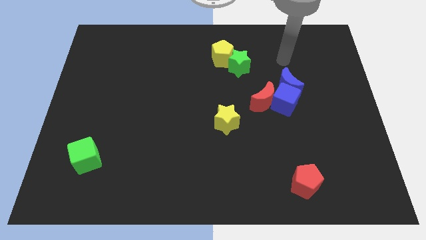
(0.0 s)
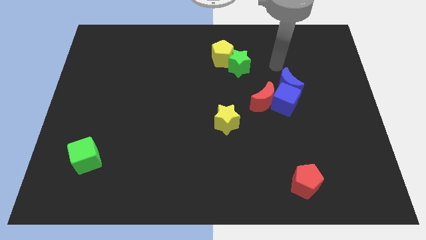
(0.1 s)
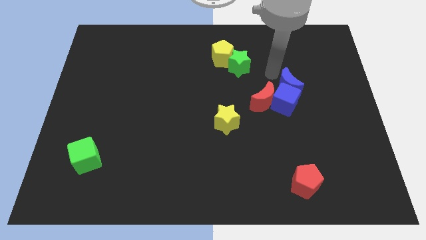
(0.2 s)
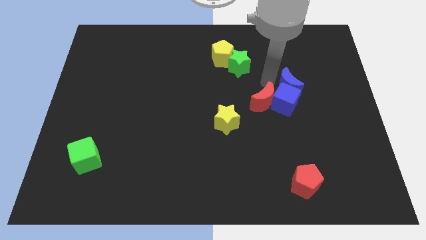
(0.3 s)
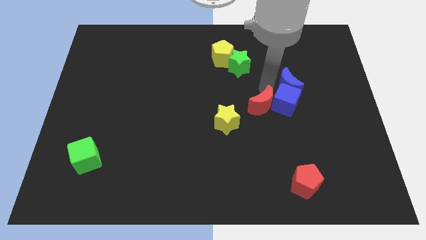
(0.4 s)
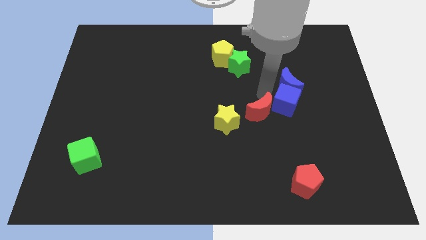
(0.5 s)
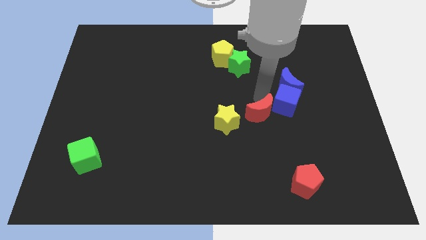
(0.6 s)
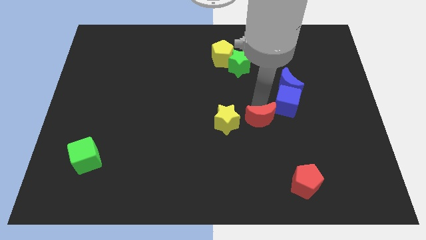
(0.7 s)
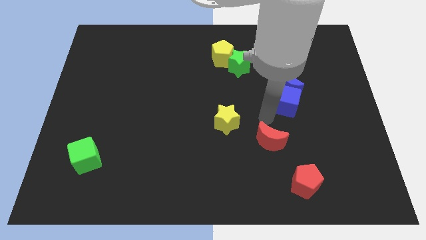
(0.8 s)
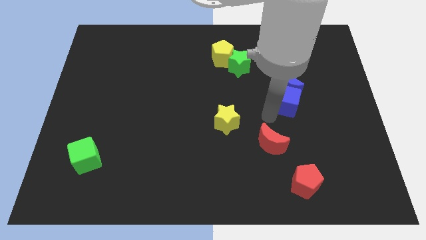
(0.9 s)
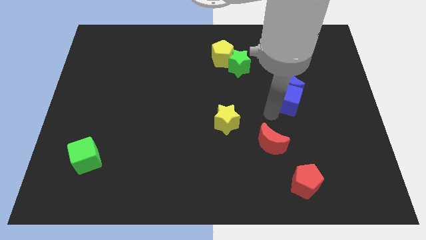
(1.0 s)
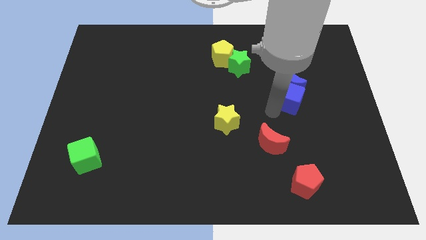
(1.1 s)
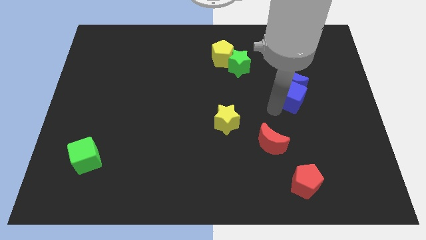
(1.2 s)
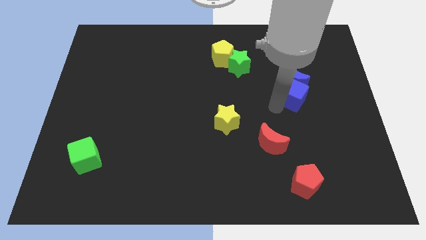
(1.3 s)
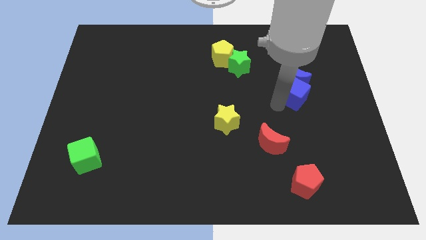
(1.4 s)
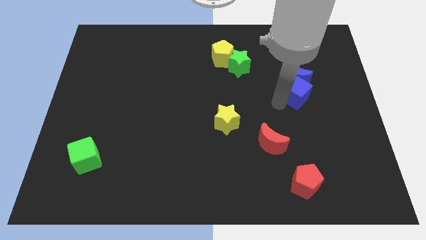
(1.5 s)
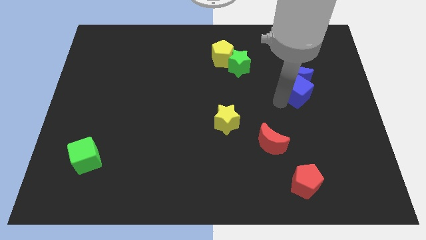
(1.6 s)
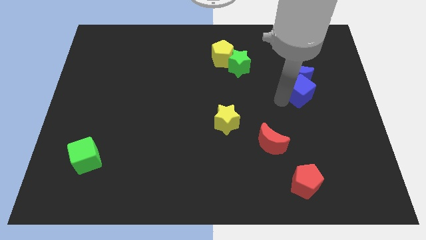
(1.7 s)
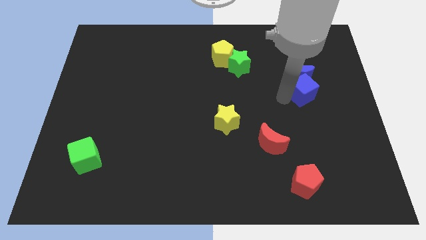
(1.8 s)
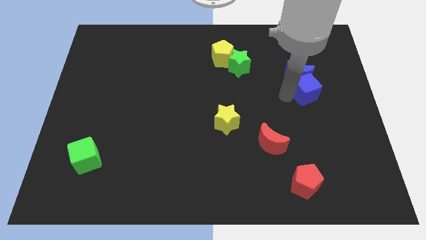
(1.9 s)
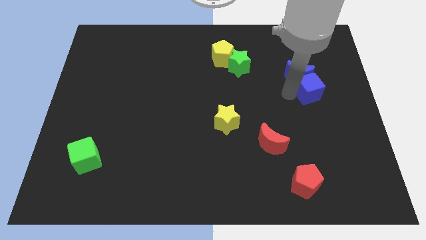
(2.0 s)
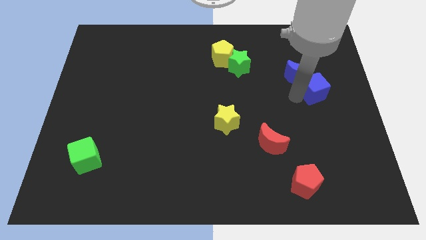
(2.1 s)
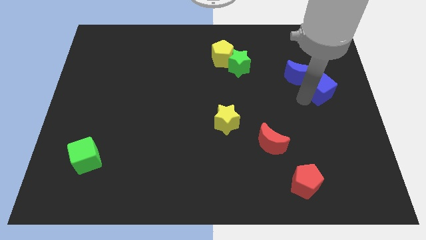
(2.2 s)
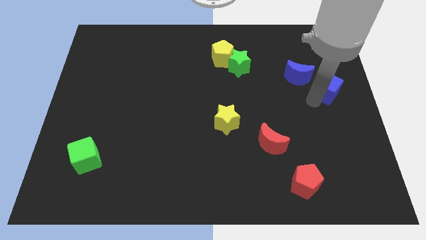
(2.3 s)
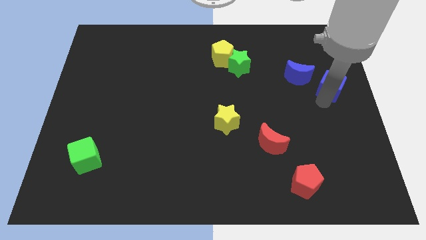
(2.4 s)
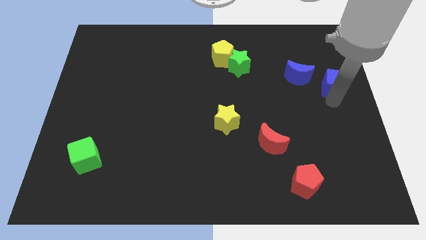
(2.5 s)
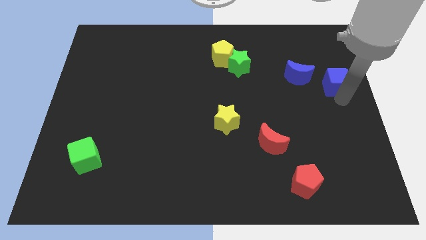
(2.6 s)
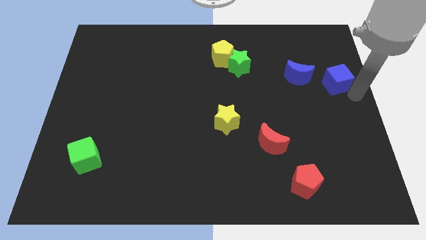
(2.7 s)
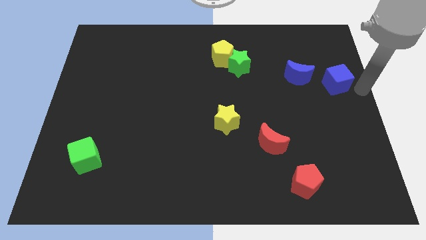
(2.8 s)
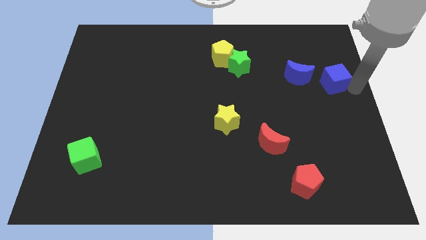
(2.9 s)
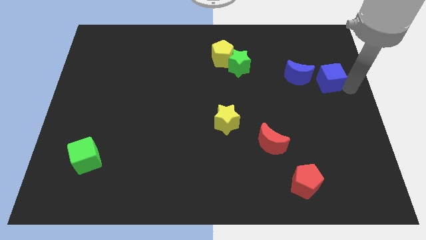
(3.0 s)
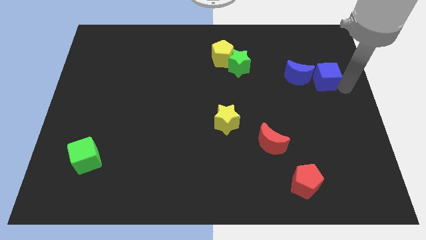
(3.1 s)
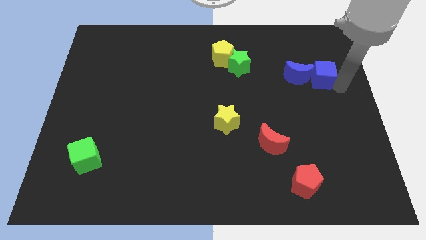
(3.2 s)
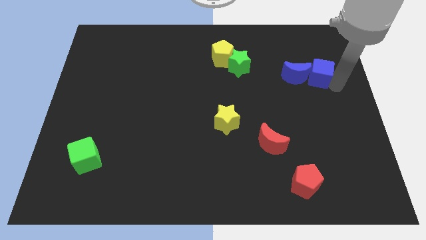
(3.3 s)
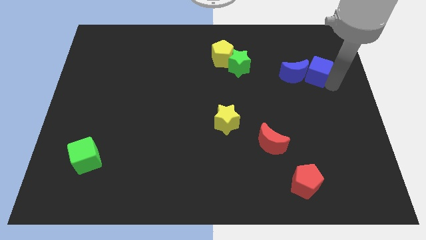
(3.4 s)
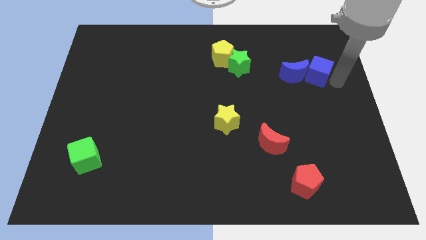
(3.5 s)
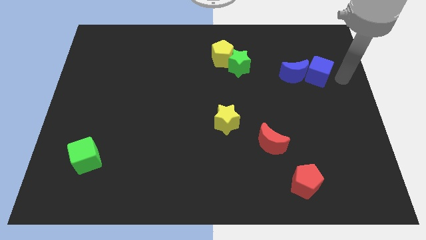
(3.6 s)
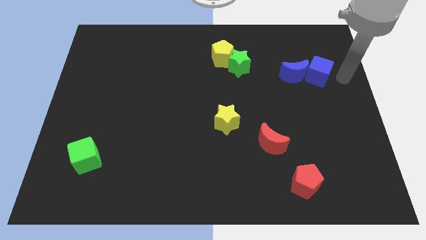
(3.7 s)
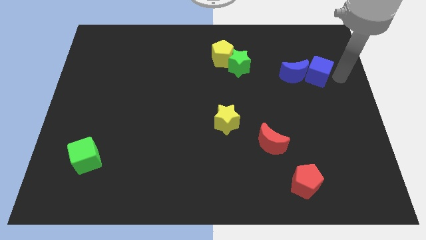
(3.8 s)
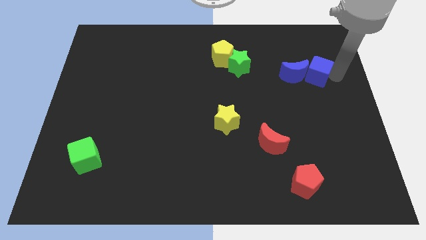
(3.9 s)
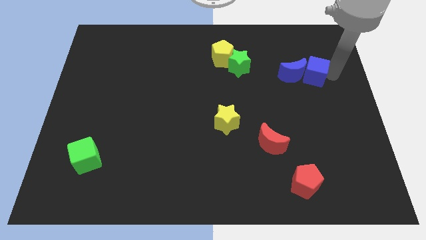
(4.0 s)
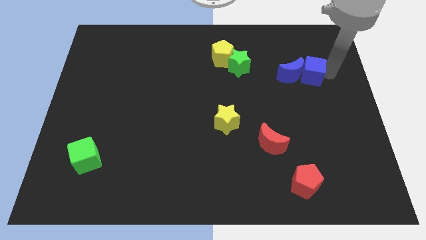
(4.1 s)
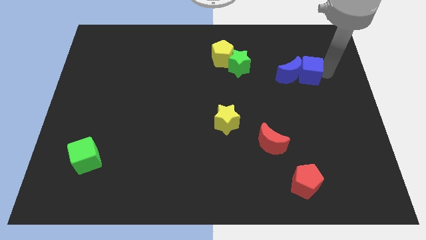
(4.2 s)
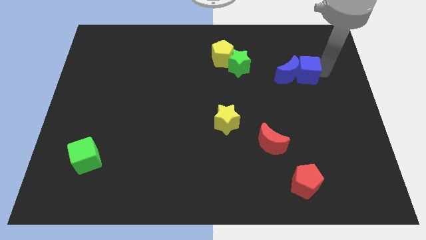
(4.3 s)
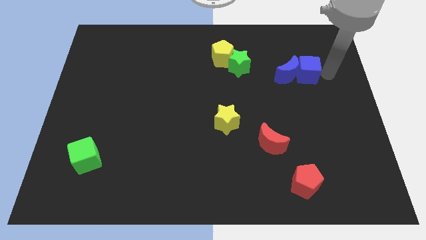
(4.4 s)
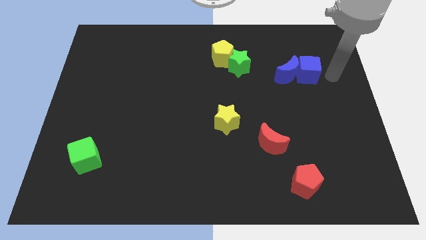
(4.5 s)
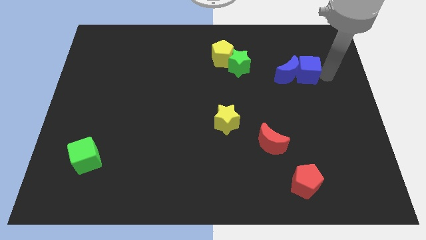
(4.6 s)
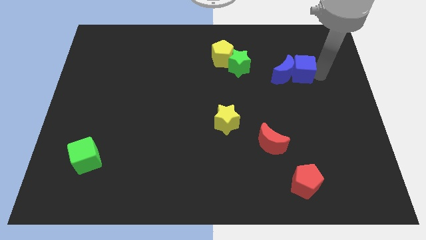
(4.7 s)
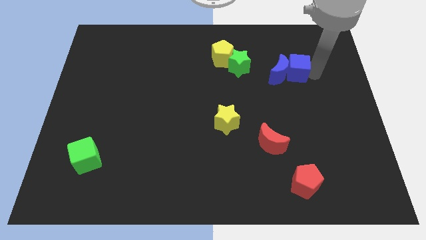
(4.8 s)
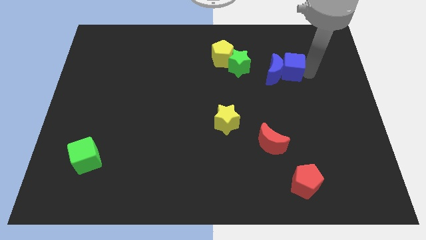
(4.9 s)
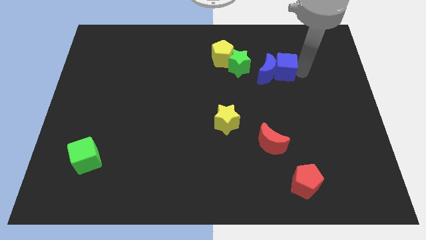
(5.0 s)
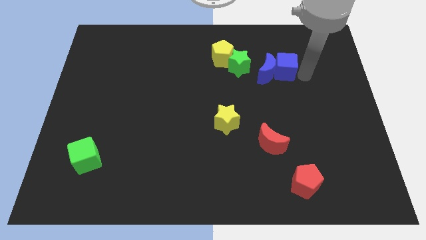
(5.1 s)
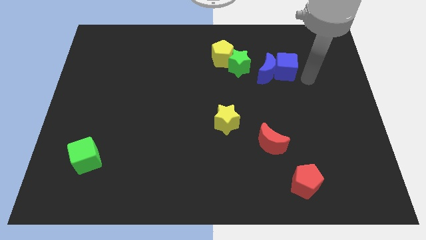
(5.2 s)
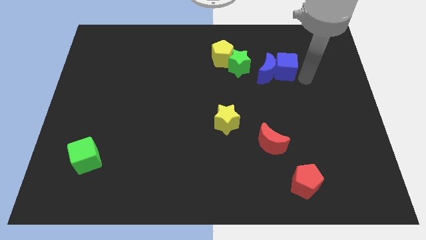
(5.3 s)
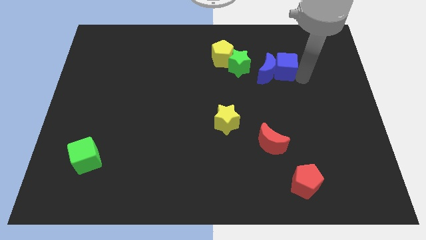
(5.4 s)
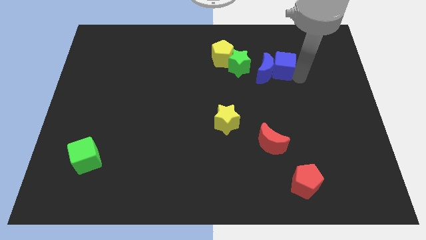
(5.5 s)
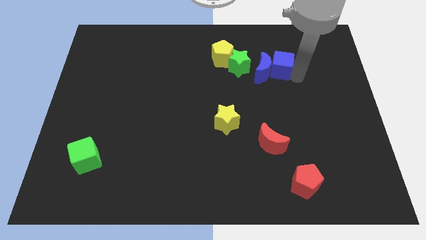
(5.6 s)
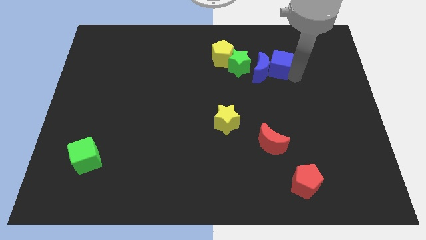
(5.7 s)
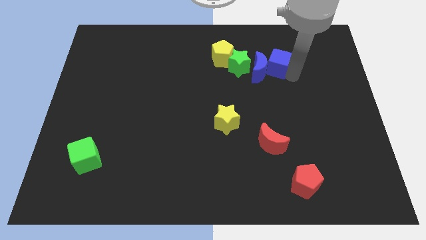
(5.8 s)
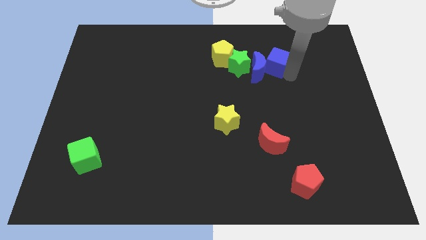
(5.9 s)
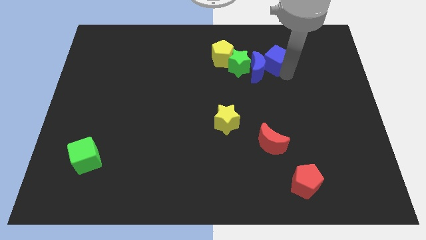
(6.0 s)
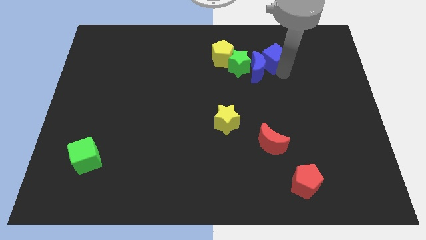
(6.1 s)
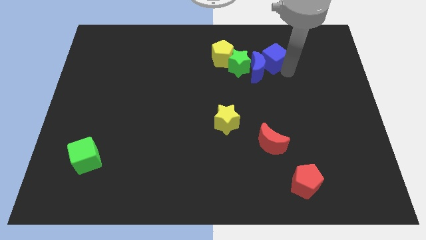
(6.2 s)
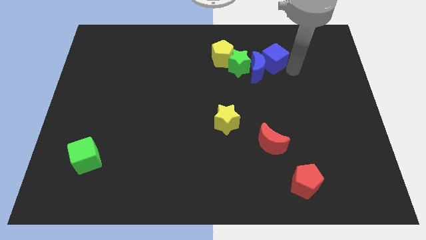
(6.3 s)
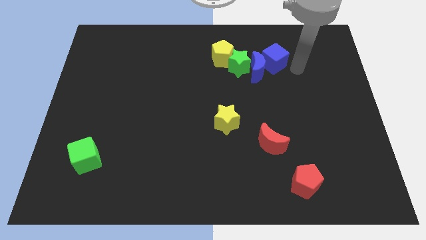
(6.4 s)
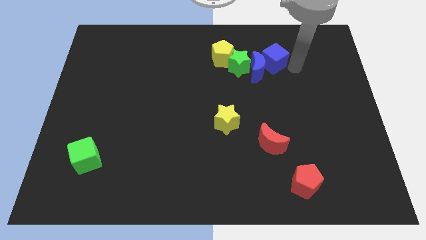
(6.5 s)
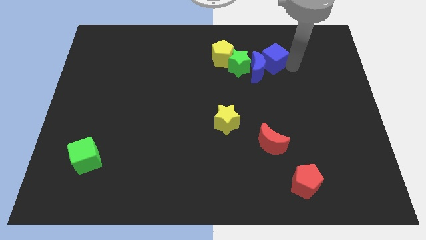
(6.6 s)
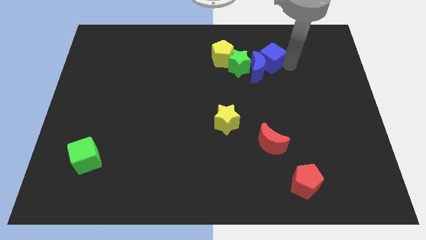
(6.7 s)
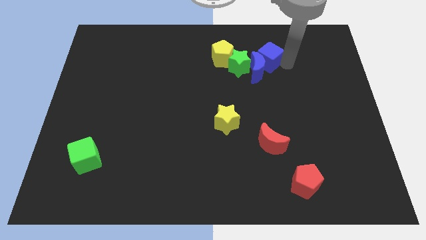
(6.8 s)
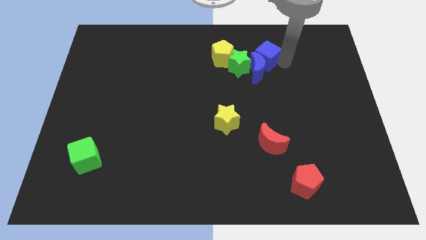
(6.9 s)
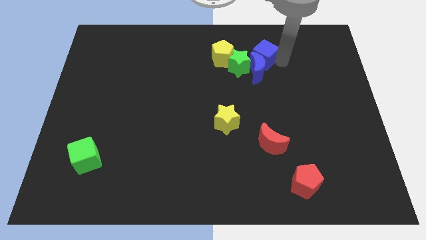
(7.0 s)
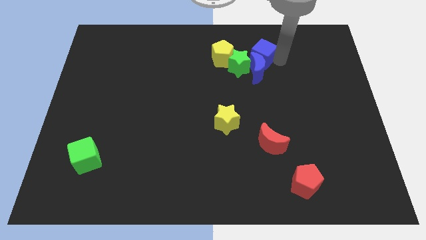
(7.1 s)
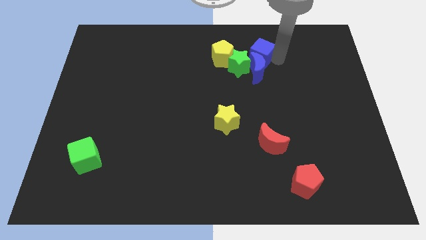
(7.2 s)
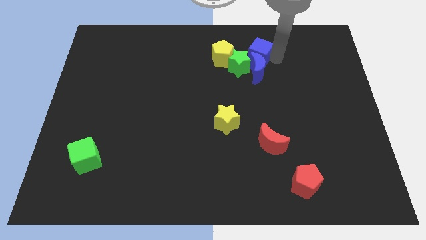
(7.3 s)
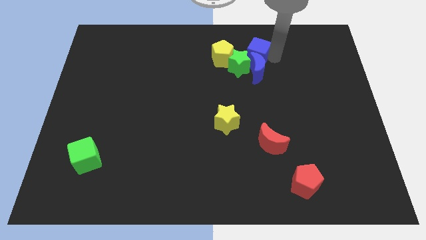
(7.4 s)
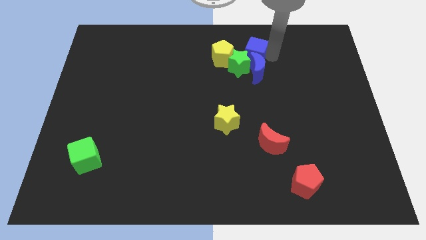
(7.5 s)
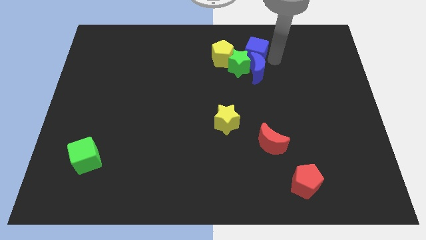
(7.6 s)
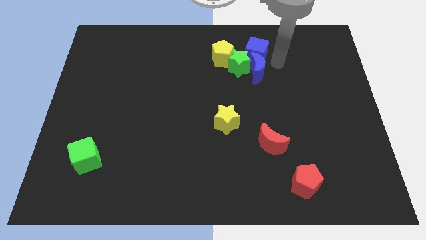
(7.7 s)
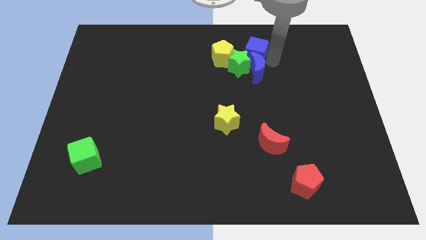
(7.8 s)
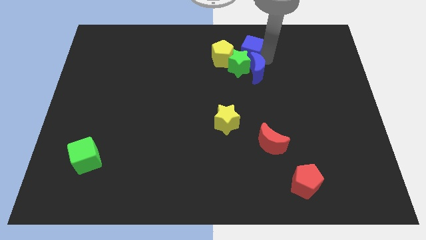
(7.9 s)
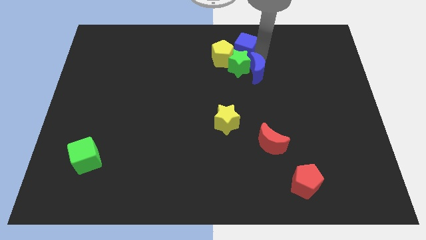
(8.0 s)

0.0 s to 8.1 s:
slide the blue cube to the top side
